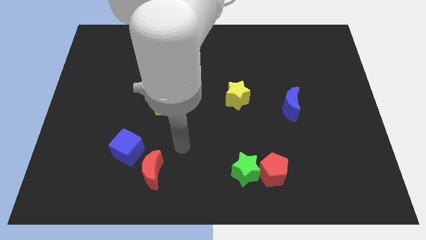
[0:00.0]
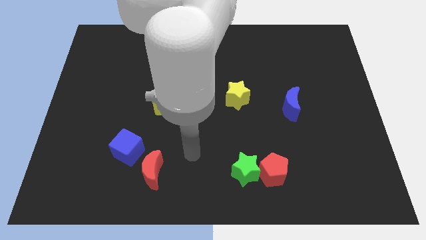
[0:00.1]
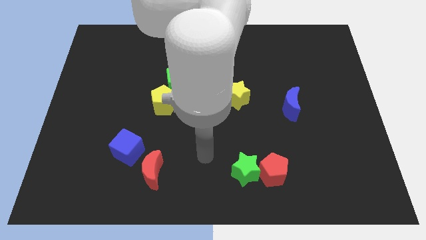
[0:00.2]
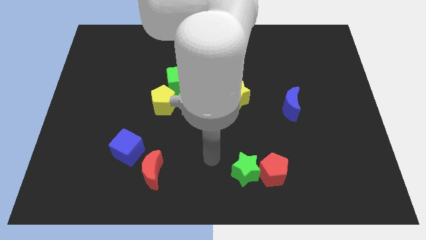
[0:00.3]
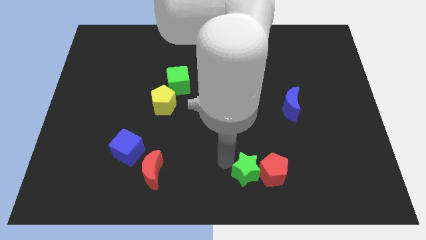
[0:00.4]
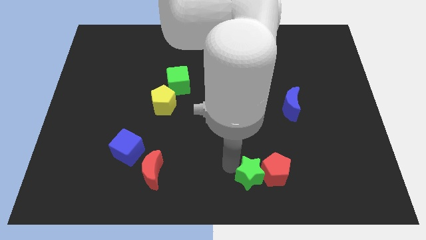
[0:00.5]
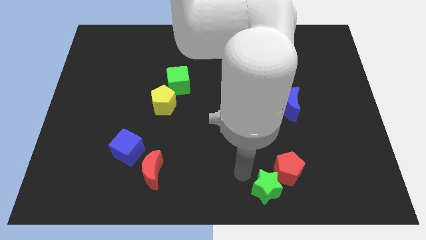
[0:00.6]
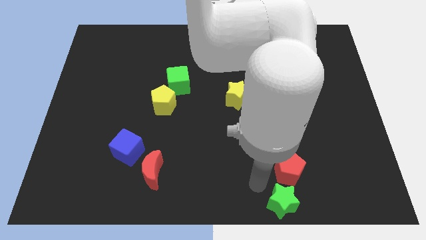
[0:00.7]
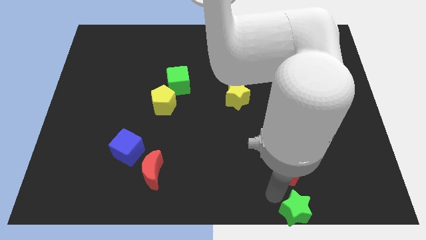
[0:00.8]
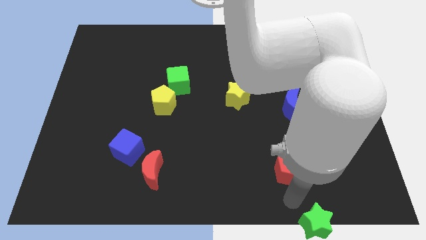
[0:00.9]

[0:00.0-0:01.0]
move the red pentagon away from the green star

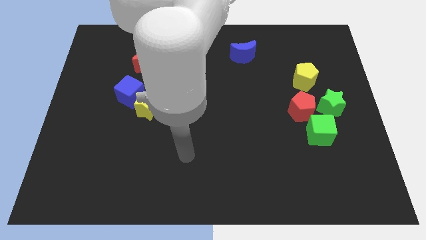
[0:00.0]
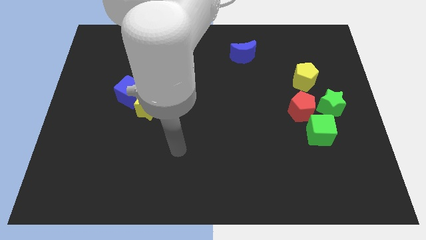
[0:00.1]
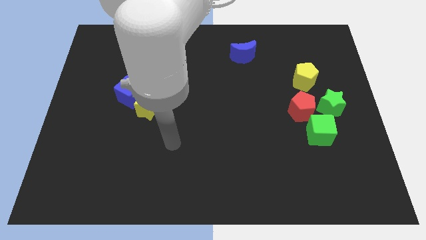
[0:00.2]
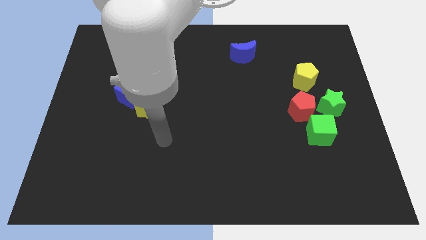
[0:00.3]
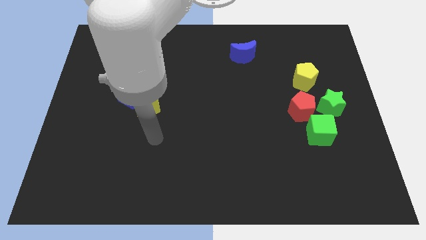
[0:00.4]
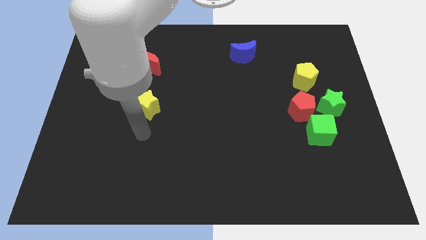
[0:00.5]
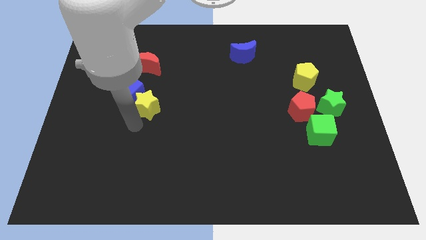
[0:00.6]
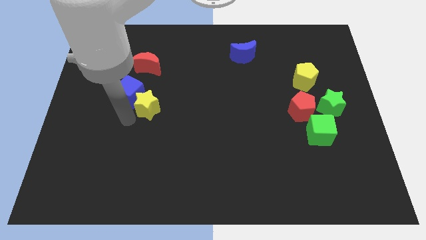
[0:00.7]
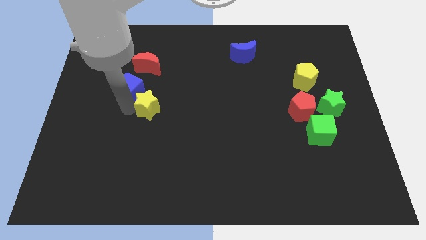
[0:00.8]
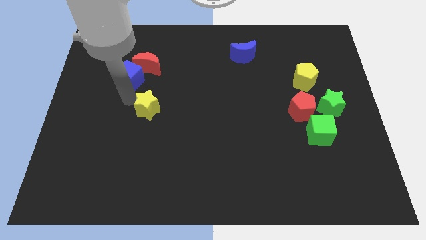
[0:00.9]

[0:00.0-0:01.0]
move the yellow star away from the blue cube

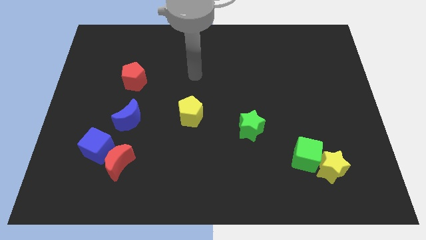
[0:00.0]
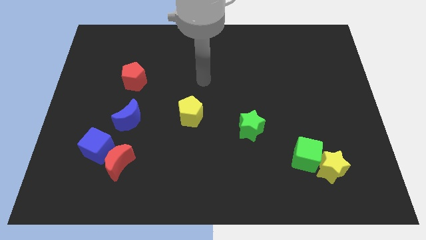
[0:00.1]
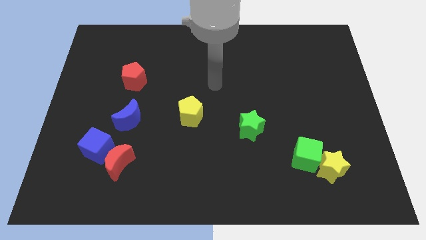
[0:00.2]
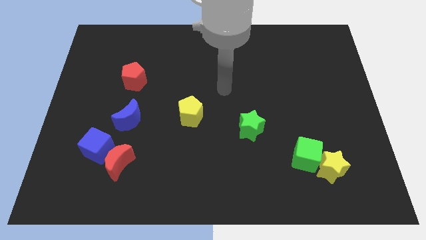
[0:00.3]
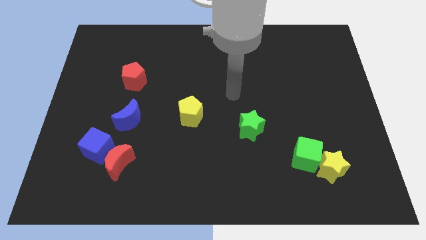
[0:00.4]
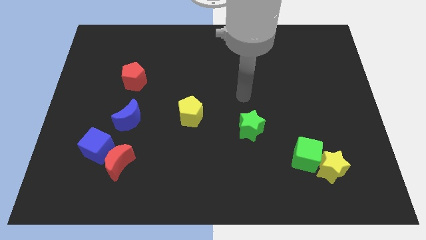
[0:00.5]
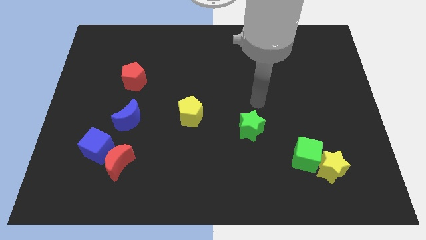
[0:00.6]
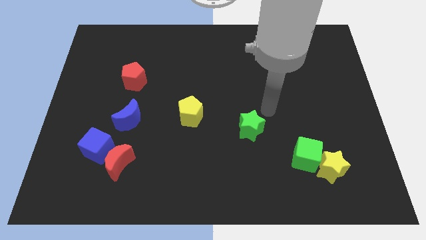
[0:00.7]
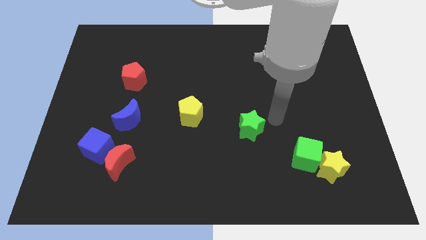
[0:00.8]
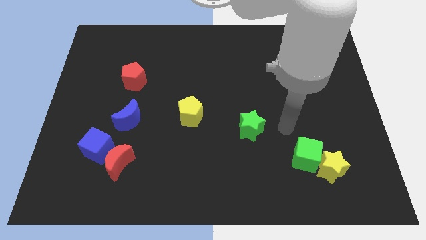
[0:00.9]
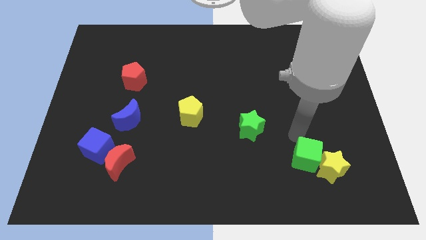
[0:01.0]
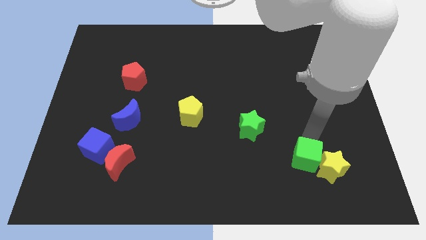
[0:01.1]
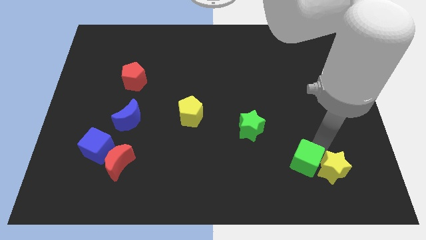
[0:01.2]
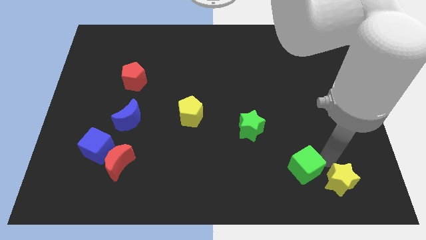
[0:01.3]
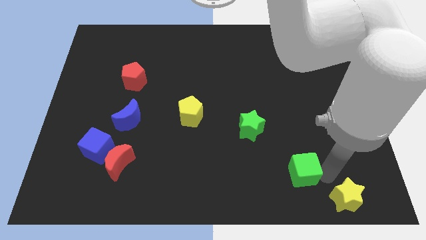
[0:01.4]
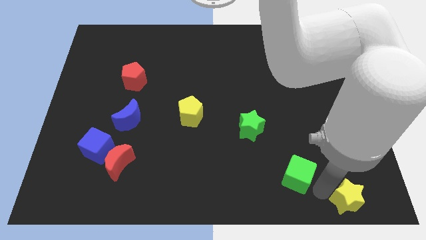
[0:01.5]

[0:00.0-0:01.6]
separate the green cube from the yellow star

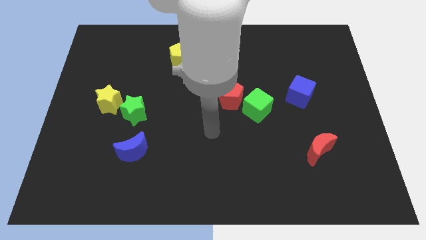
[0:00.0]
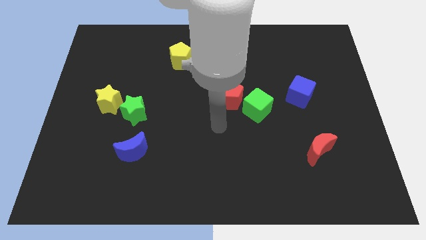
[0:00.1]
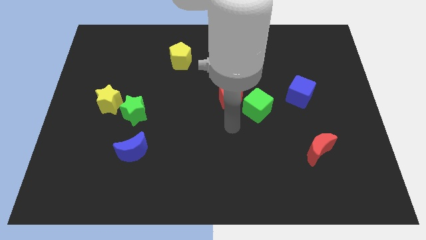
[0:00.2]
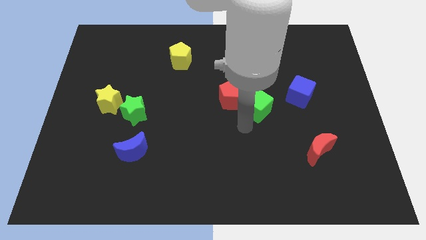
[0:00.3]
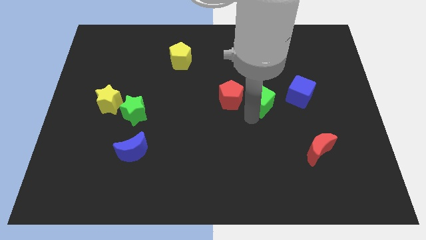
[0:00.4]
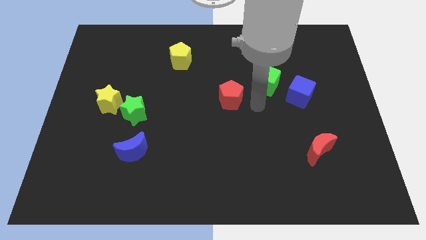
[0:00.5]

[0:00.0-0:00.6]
pull the red pentagon apart from the green cube

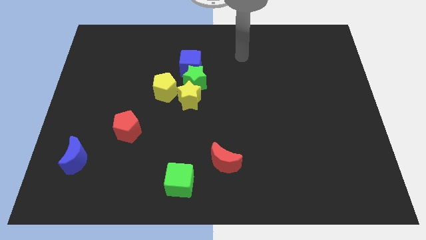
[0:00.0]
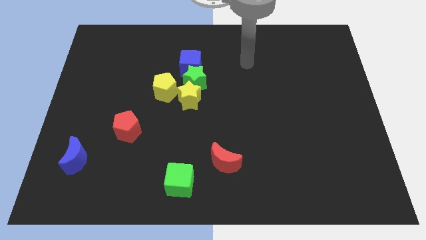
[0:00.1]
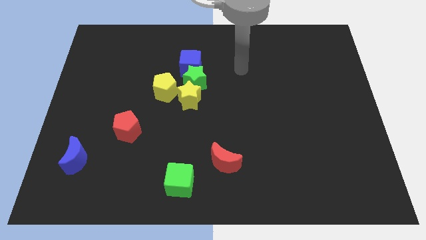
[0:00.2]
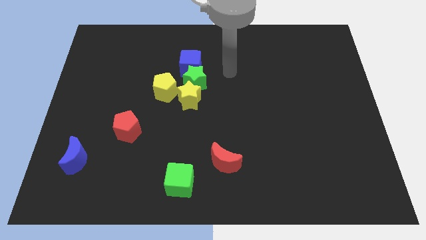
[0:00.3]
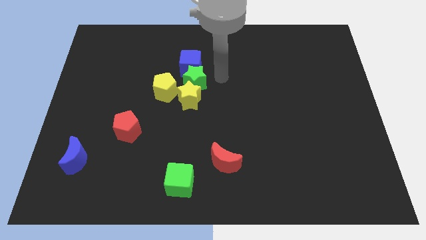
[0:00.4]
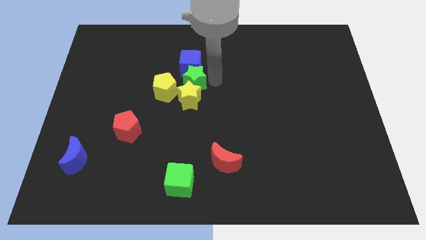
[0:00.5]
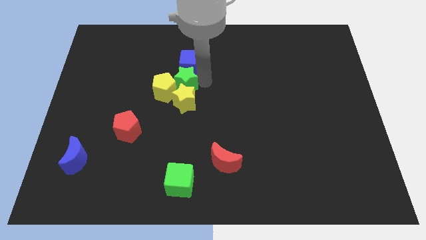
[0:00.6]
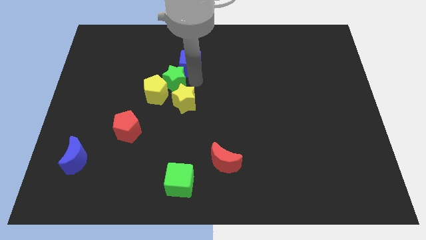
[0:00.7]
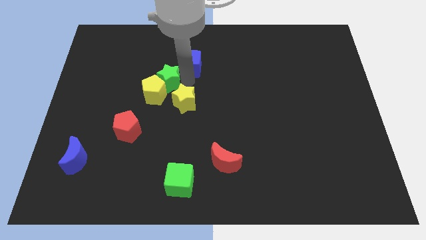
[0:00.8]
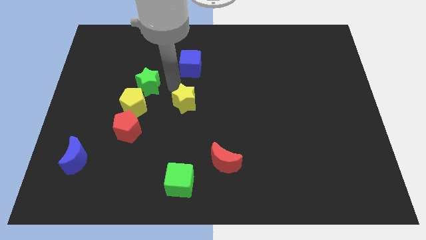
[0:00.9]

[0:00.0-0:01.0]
move the yellow star away from the green star and yellow pentagon

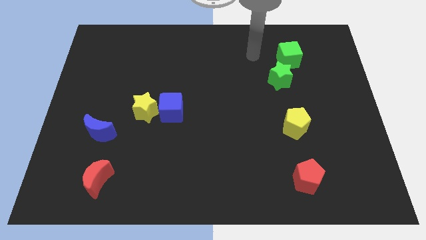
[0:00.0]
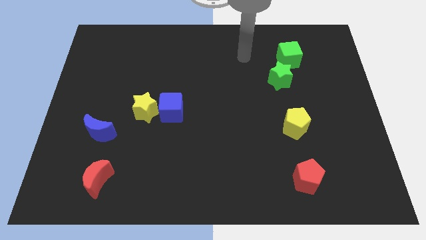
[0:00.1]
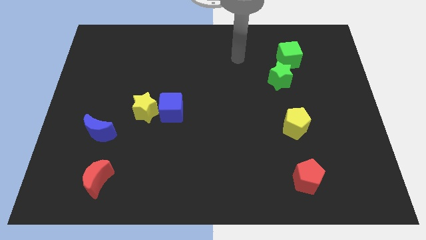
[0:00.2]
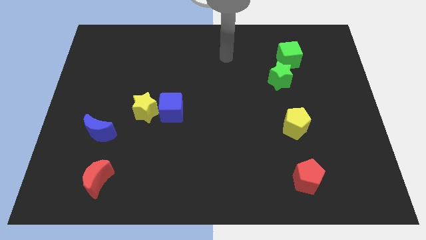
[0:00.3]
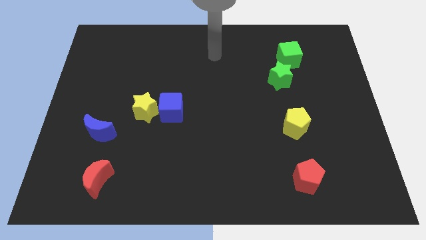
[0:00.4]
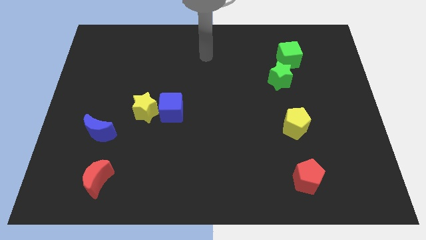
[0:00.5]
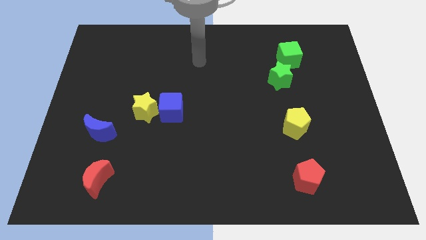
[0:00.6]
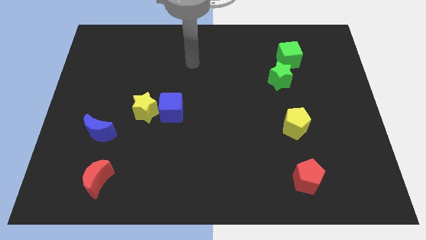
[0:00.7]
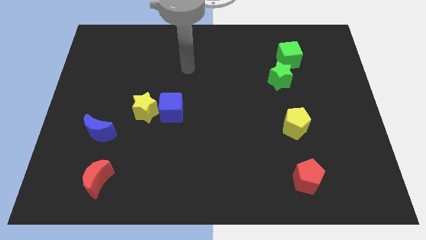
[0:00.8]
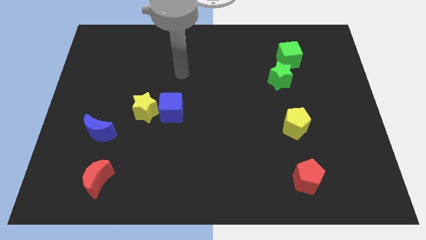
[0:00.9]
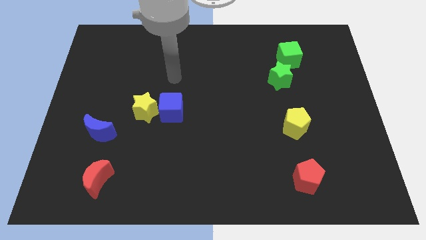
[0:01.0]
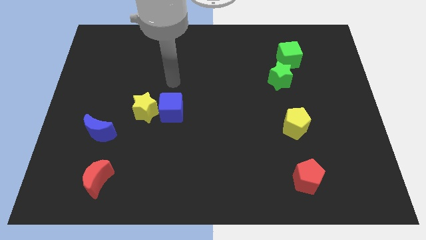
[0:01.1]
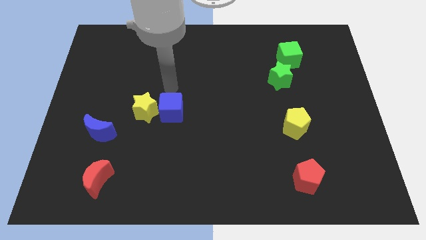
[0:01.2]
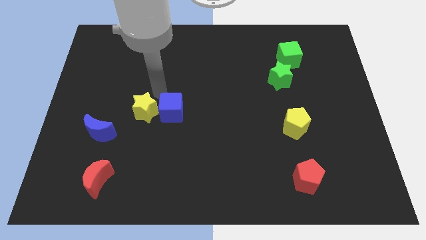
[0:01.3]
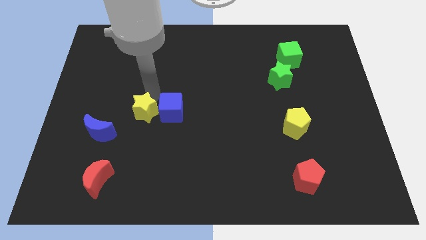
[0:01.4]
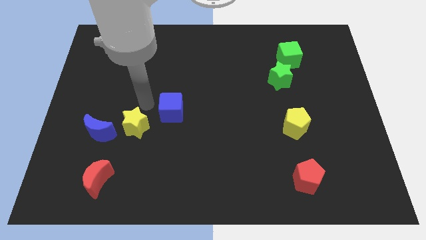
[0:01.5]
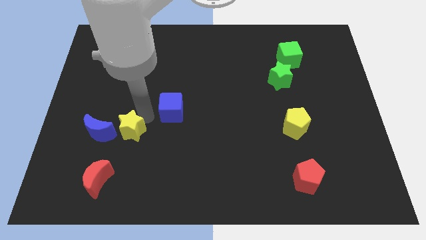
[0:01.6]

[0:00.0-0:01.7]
move the blue cube away from the yellow star

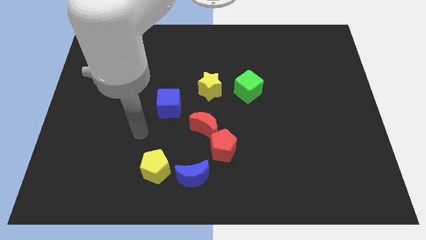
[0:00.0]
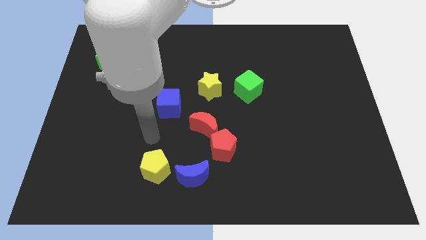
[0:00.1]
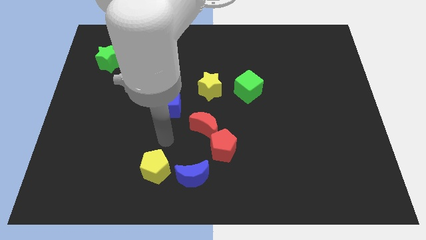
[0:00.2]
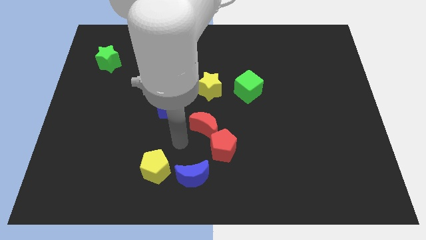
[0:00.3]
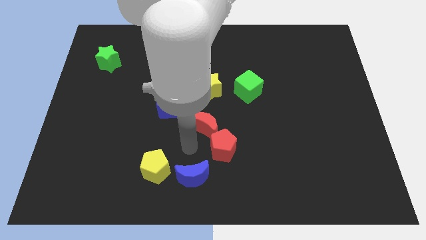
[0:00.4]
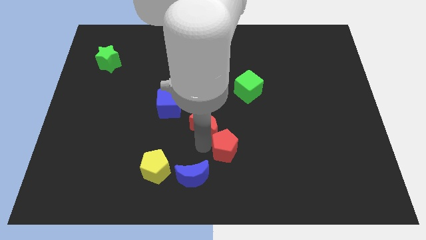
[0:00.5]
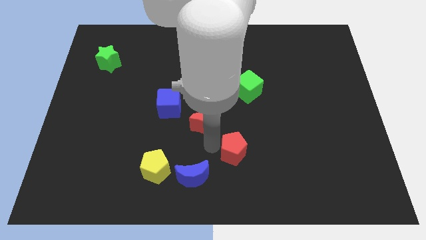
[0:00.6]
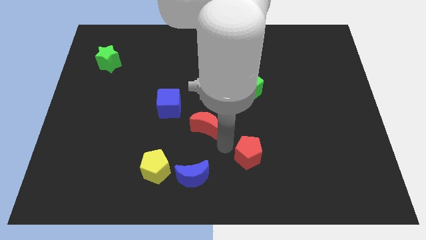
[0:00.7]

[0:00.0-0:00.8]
pull the red moon apart from the red pentagon

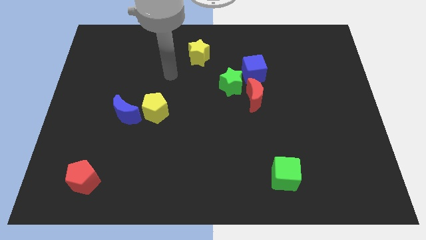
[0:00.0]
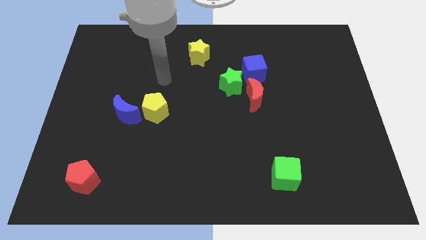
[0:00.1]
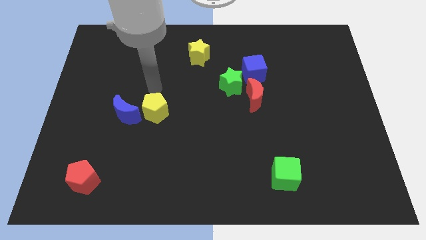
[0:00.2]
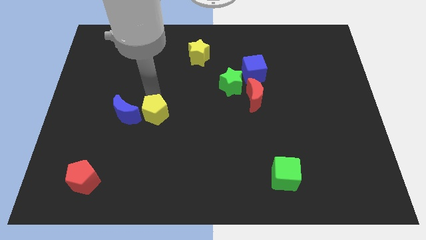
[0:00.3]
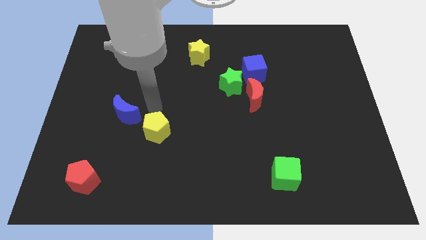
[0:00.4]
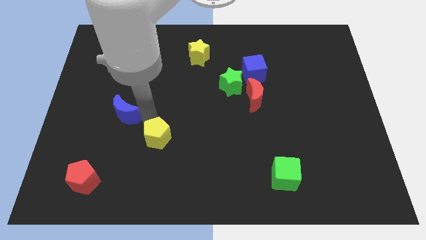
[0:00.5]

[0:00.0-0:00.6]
move the blue moon away from the yellow pentagon

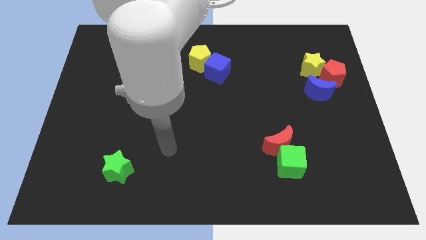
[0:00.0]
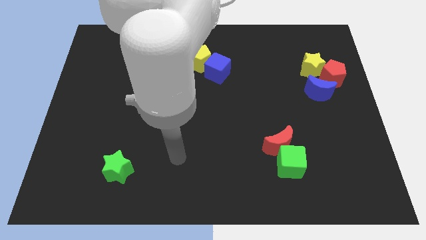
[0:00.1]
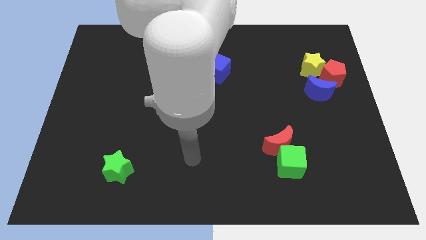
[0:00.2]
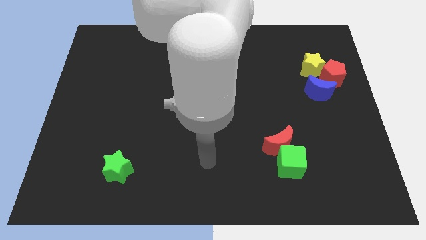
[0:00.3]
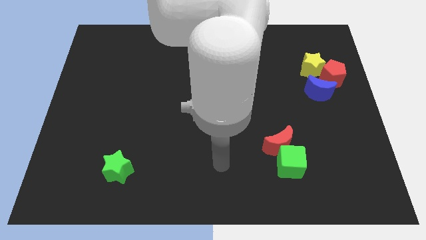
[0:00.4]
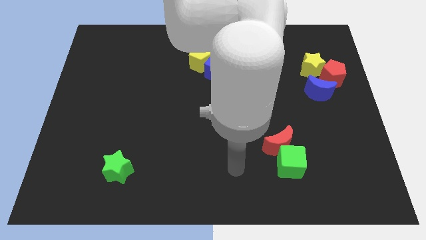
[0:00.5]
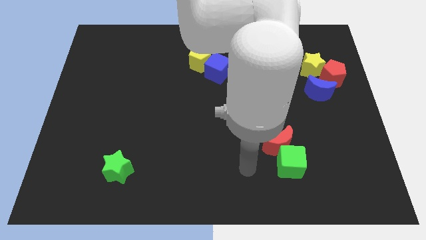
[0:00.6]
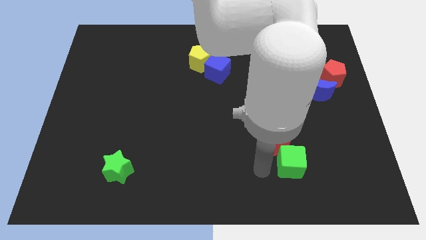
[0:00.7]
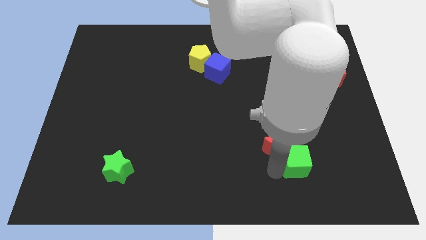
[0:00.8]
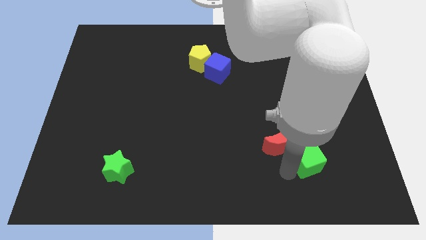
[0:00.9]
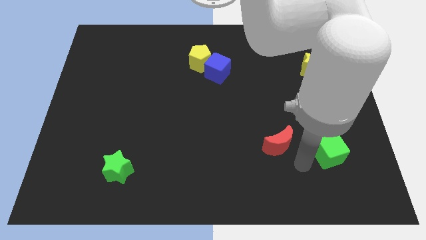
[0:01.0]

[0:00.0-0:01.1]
pull the red moon apart from the green cube

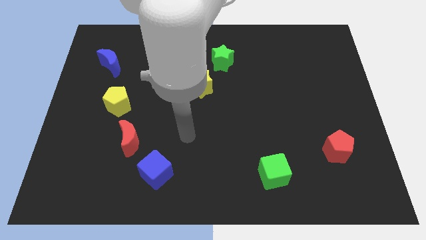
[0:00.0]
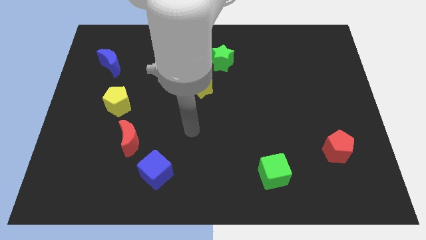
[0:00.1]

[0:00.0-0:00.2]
pull the green star apart from the yellow star
